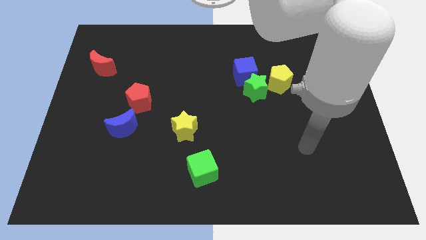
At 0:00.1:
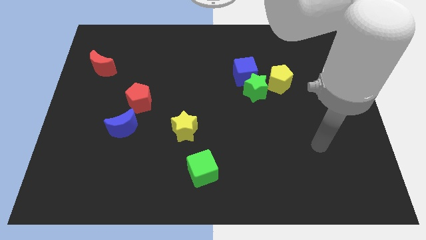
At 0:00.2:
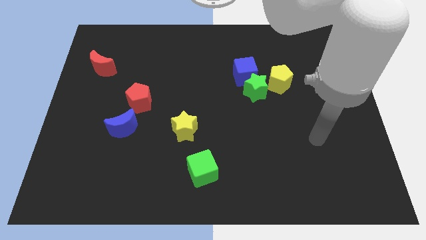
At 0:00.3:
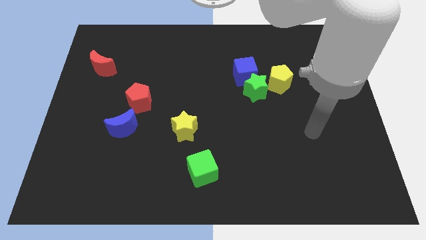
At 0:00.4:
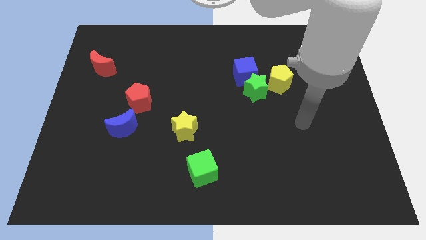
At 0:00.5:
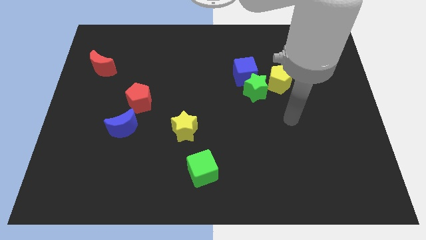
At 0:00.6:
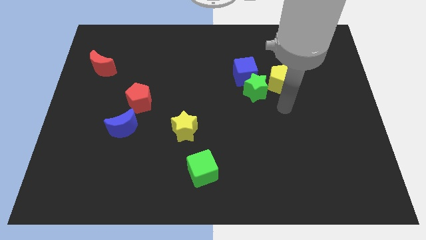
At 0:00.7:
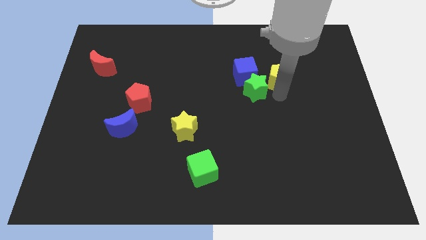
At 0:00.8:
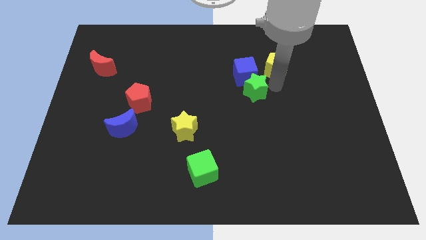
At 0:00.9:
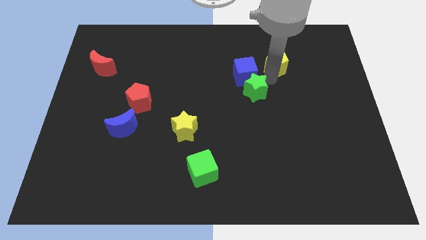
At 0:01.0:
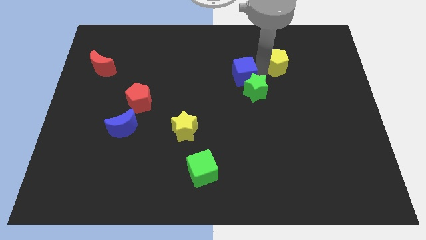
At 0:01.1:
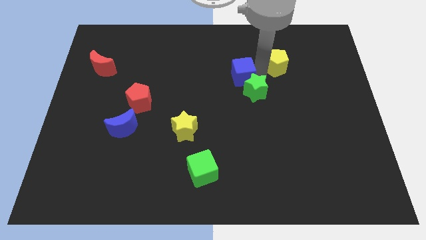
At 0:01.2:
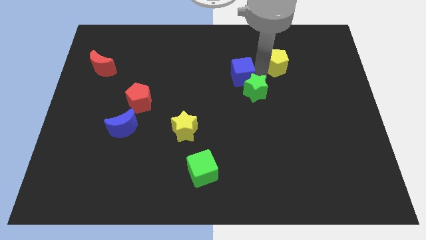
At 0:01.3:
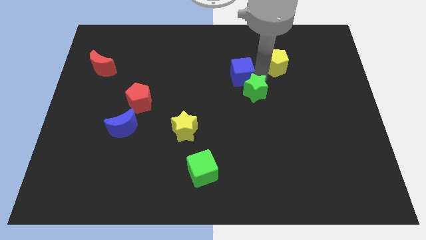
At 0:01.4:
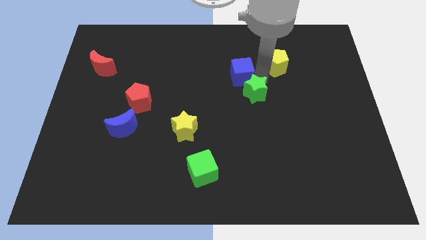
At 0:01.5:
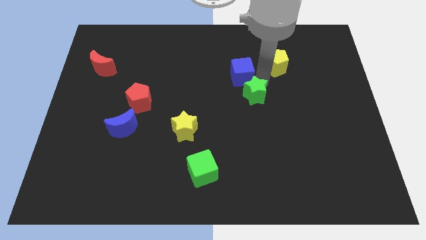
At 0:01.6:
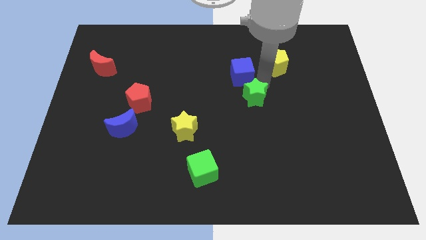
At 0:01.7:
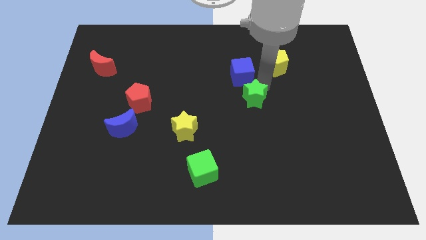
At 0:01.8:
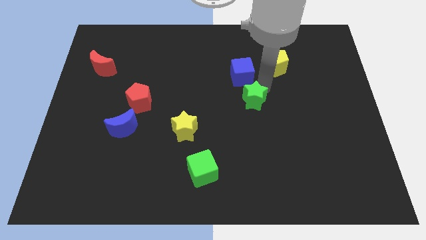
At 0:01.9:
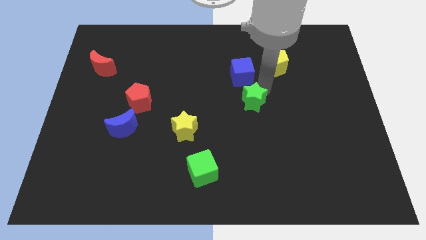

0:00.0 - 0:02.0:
pull the green star apart from the blue cube and yellow pentagon

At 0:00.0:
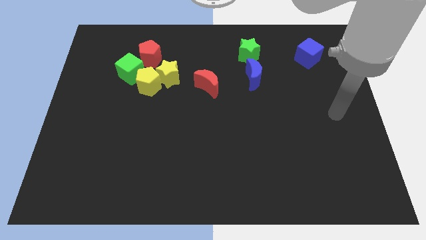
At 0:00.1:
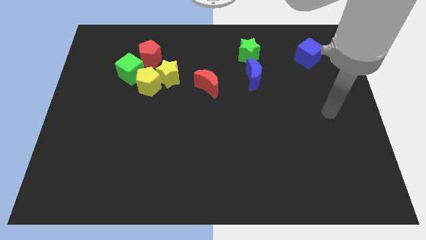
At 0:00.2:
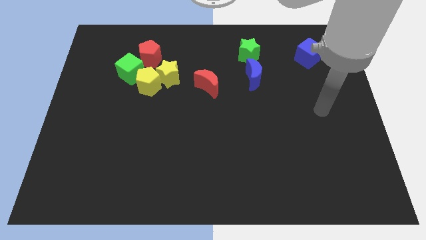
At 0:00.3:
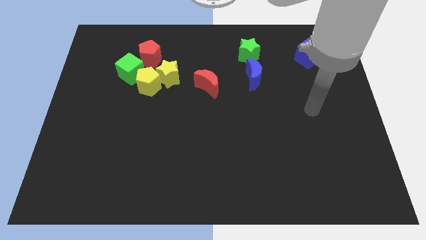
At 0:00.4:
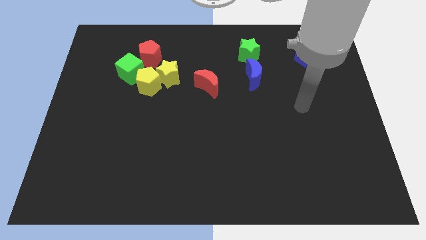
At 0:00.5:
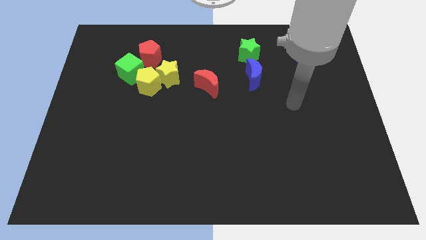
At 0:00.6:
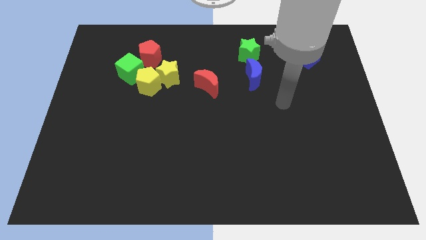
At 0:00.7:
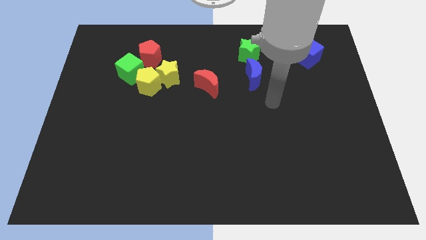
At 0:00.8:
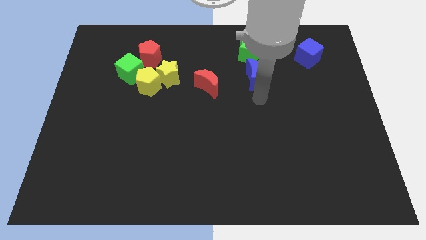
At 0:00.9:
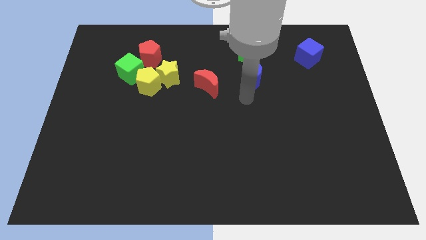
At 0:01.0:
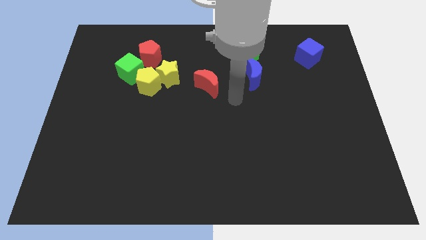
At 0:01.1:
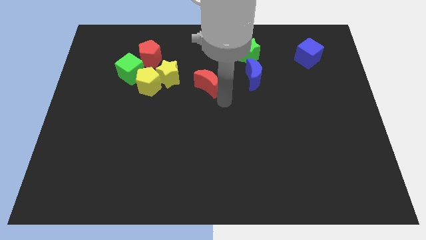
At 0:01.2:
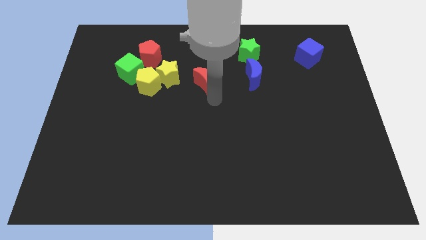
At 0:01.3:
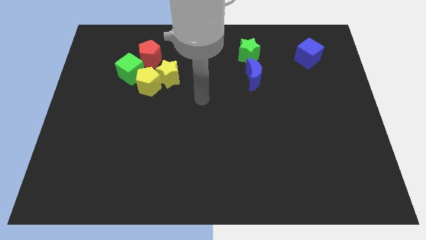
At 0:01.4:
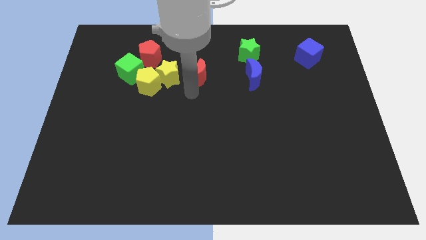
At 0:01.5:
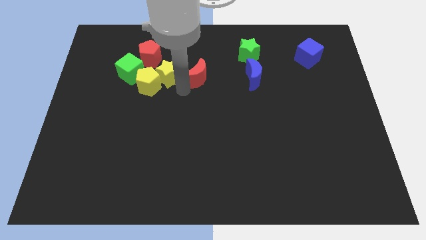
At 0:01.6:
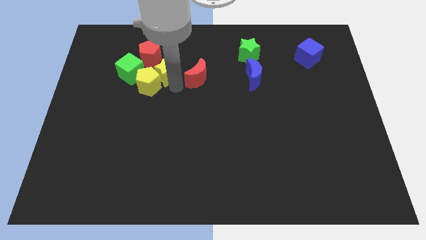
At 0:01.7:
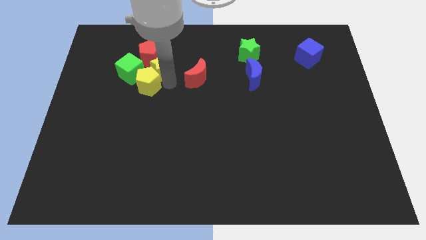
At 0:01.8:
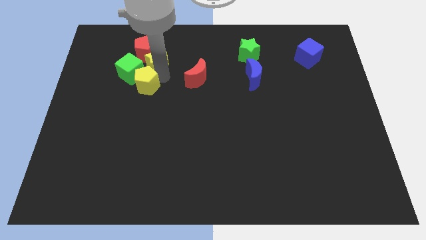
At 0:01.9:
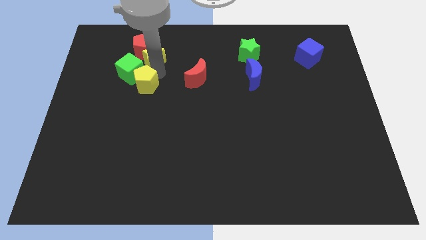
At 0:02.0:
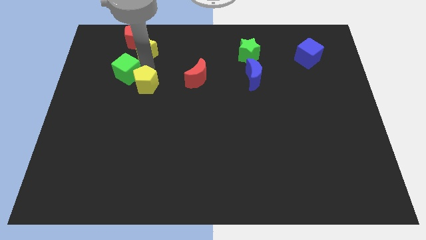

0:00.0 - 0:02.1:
move the yellow pentagon away from the group

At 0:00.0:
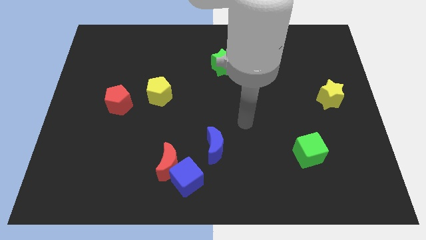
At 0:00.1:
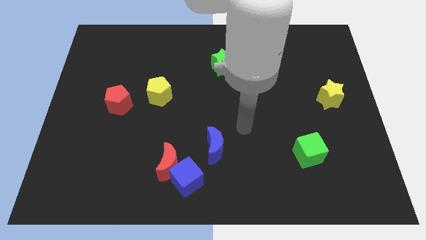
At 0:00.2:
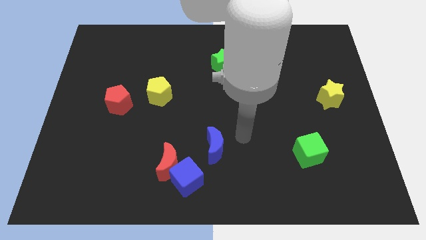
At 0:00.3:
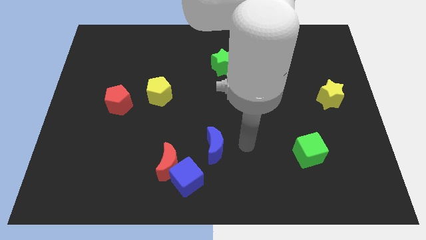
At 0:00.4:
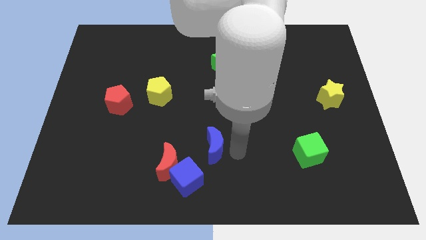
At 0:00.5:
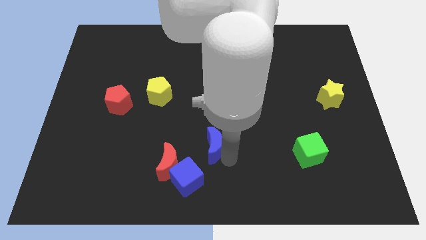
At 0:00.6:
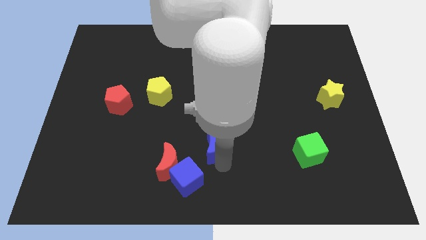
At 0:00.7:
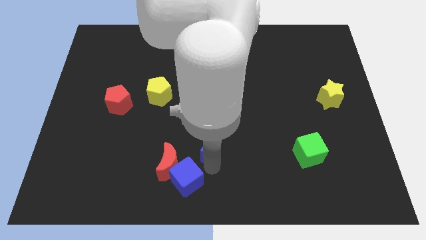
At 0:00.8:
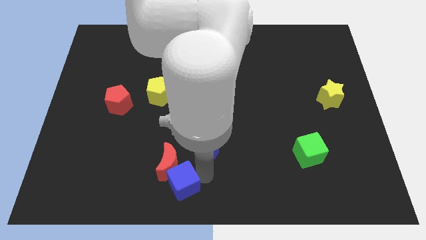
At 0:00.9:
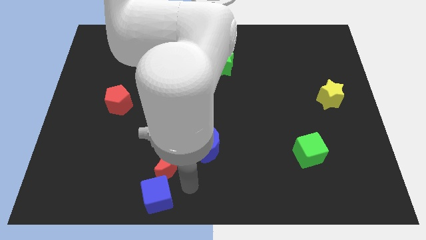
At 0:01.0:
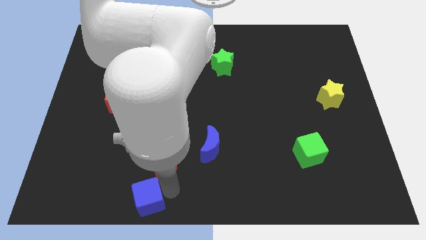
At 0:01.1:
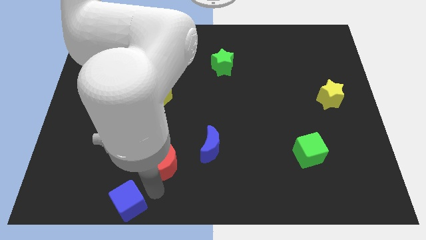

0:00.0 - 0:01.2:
move the red moon away from the blue cube

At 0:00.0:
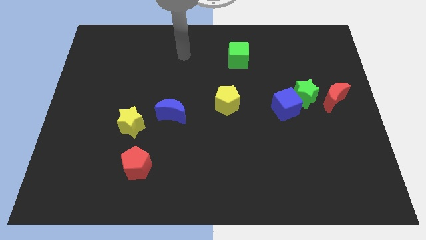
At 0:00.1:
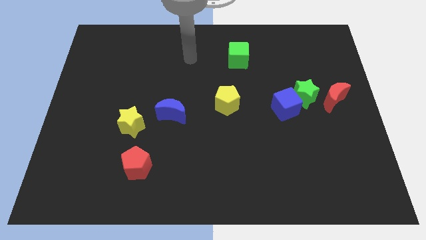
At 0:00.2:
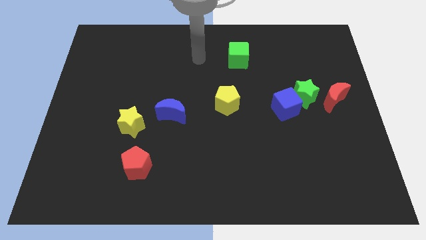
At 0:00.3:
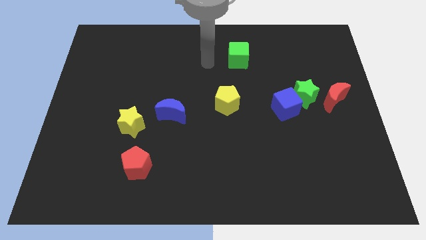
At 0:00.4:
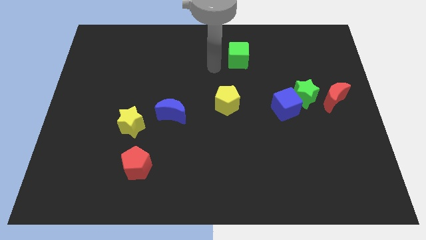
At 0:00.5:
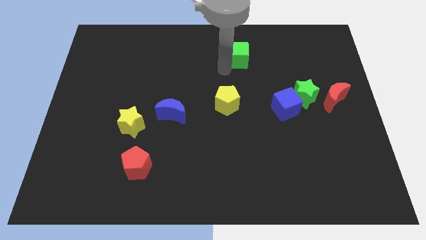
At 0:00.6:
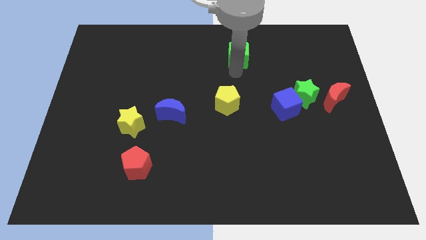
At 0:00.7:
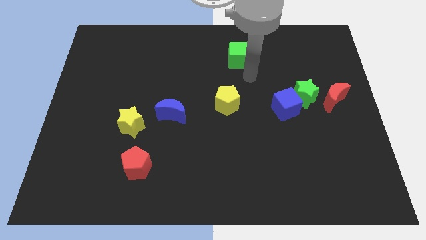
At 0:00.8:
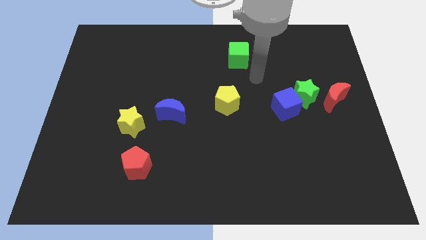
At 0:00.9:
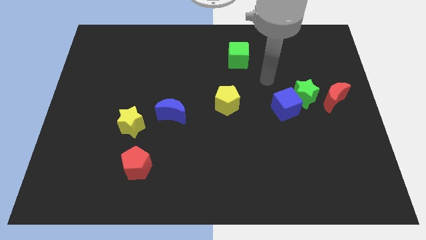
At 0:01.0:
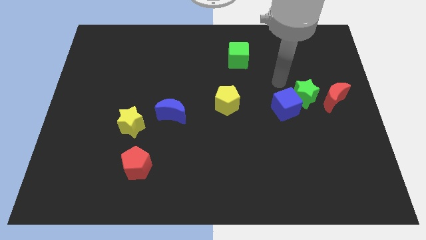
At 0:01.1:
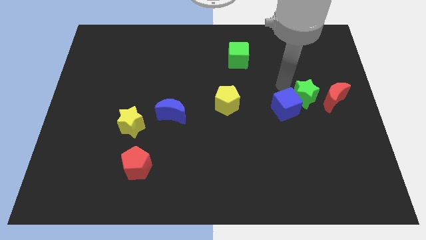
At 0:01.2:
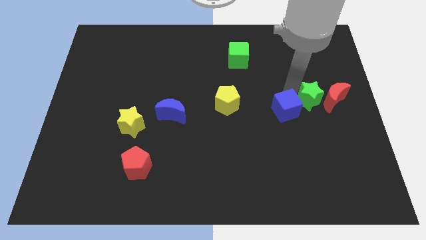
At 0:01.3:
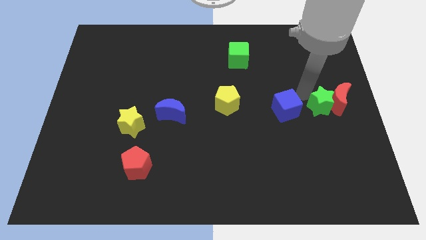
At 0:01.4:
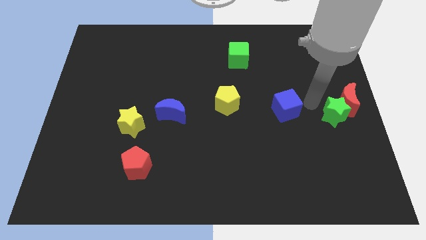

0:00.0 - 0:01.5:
pull the blue cube apart from the green star

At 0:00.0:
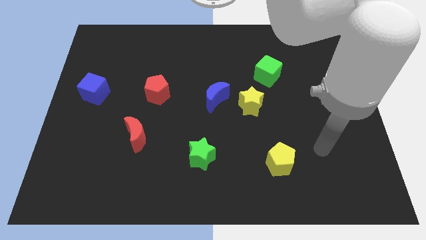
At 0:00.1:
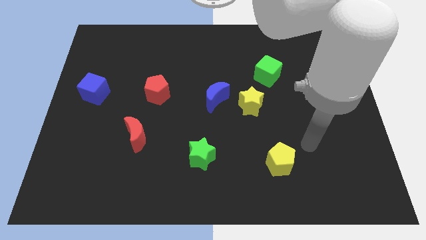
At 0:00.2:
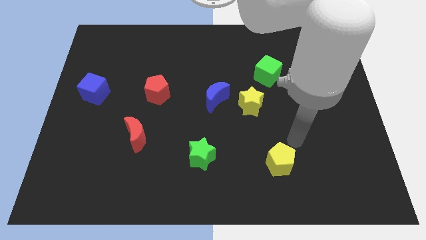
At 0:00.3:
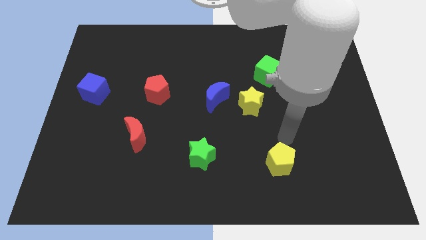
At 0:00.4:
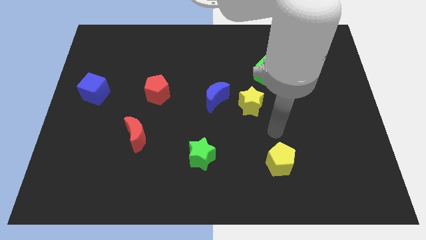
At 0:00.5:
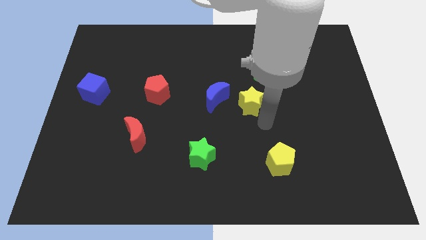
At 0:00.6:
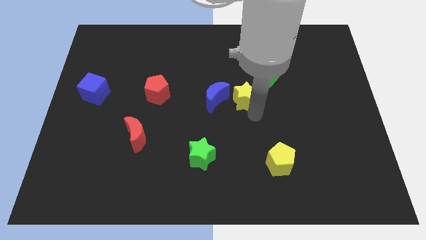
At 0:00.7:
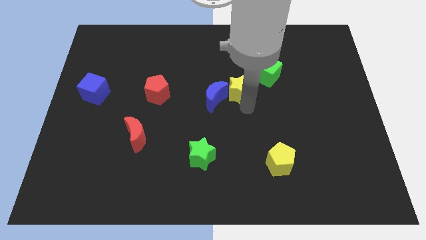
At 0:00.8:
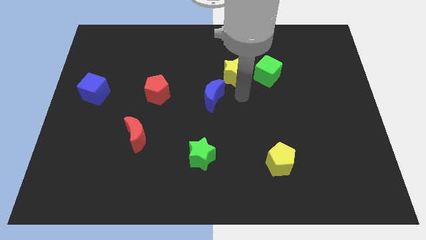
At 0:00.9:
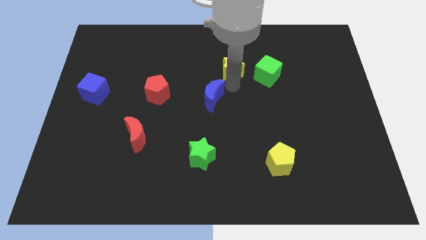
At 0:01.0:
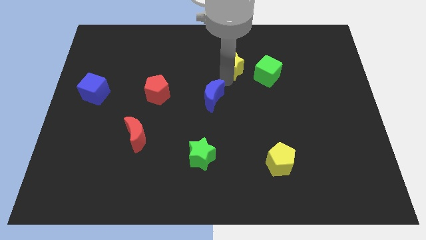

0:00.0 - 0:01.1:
pull the blue moon apart from the yellow star

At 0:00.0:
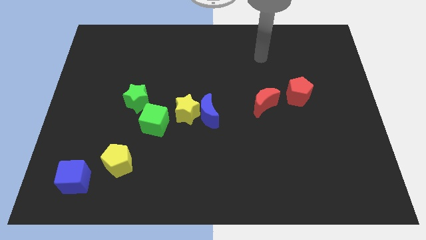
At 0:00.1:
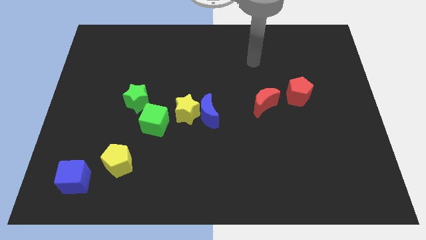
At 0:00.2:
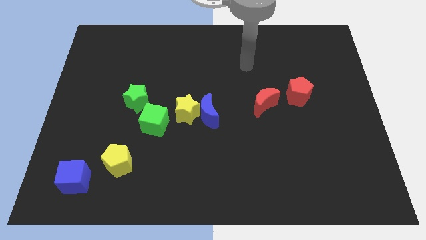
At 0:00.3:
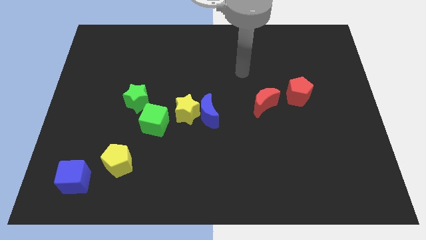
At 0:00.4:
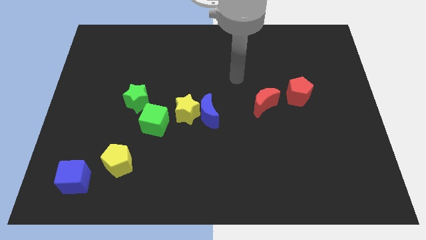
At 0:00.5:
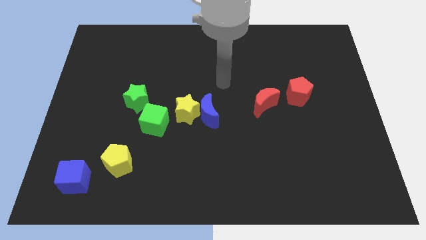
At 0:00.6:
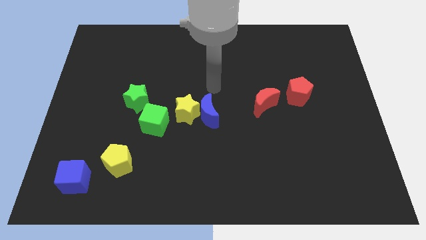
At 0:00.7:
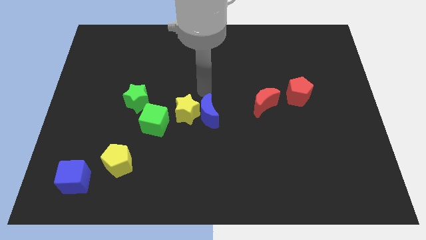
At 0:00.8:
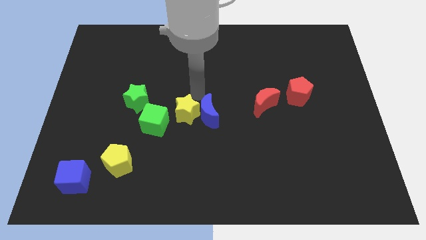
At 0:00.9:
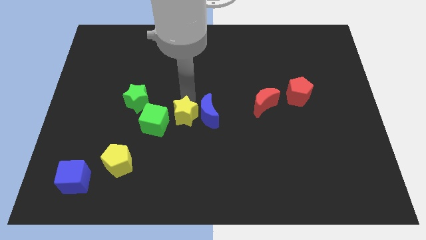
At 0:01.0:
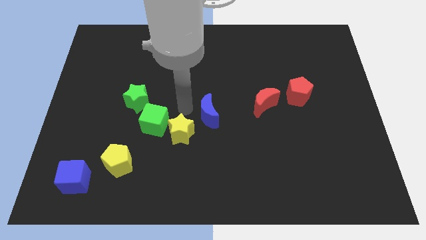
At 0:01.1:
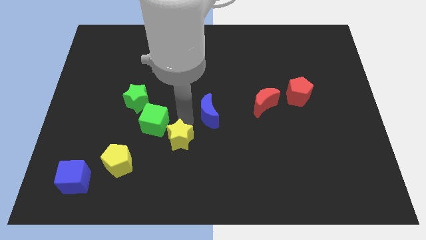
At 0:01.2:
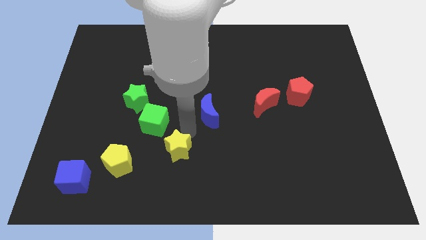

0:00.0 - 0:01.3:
move the blue moon away from the yellow star
